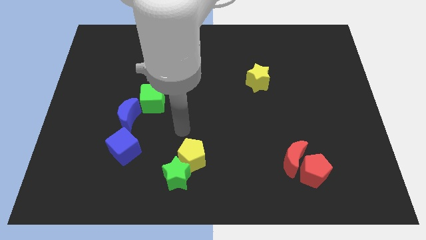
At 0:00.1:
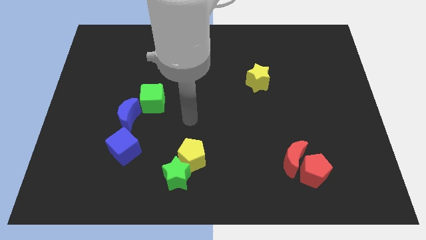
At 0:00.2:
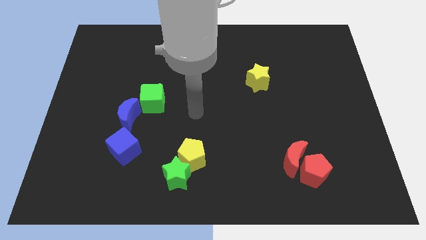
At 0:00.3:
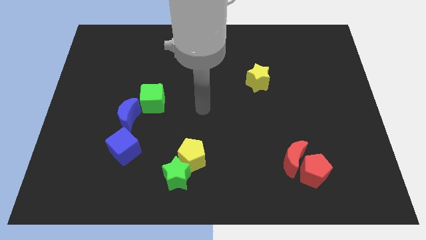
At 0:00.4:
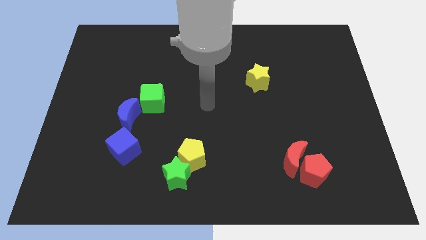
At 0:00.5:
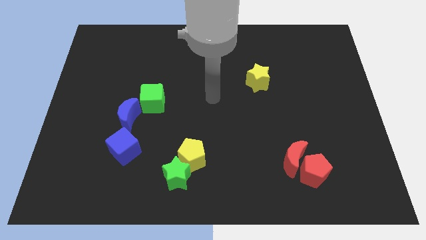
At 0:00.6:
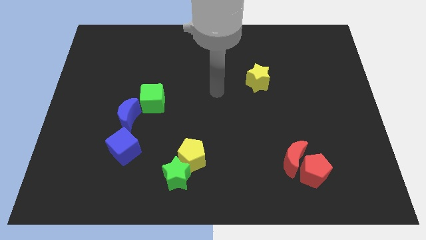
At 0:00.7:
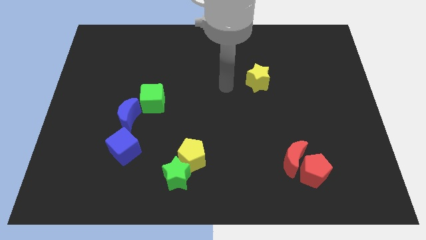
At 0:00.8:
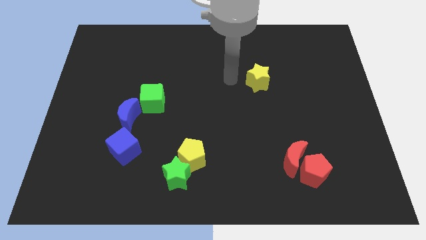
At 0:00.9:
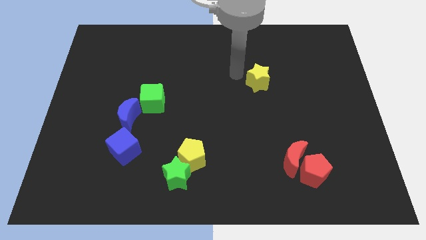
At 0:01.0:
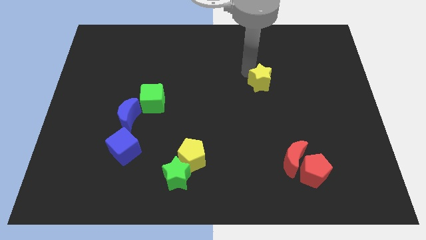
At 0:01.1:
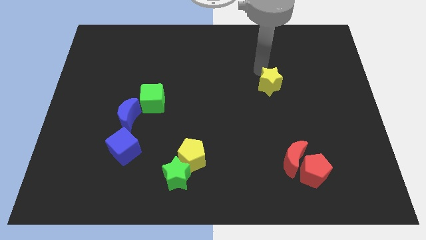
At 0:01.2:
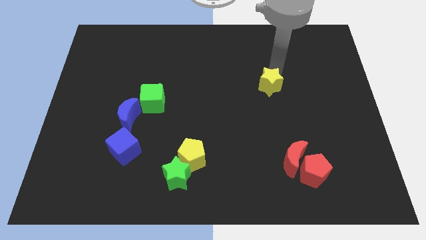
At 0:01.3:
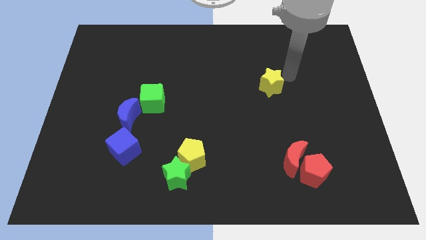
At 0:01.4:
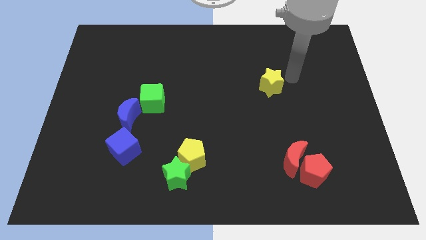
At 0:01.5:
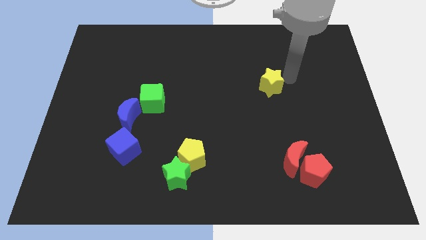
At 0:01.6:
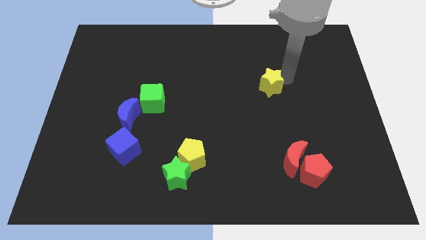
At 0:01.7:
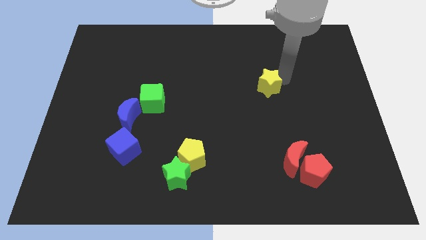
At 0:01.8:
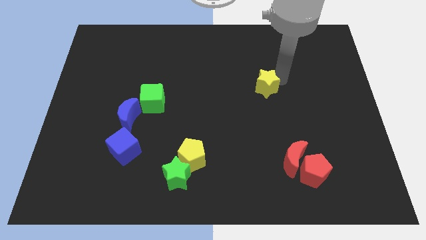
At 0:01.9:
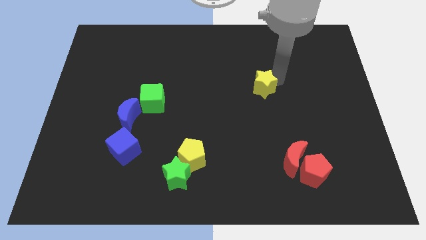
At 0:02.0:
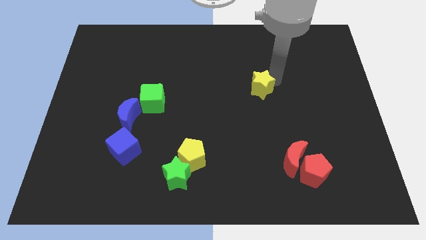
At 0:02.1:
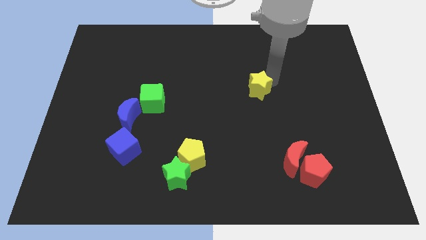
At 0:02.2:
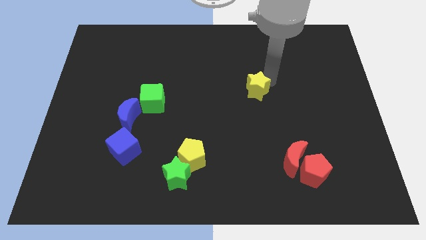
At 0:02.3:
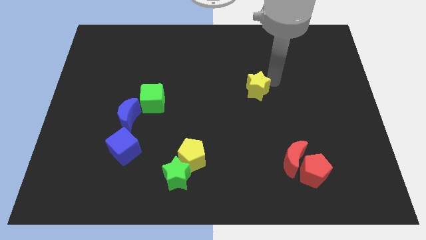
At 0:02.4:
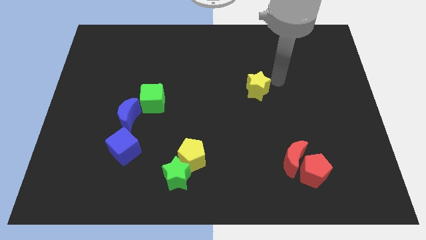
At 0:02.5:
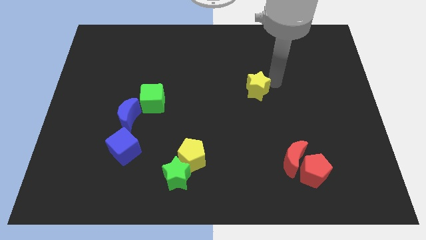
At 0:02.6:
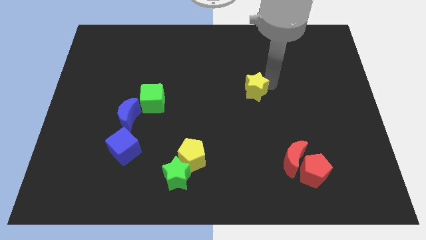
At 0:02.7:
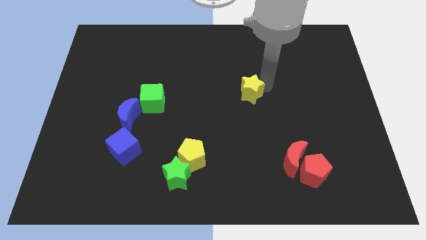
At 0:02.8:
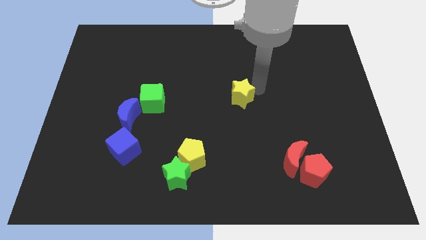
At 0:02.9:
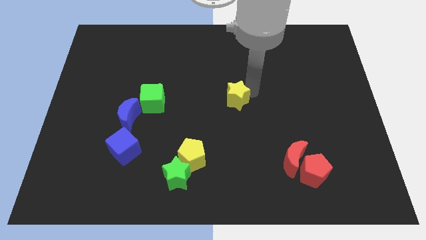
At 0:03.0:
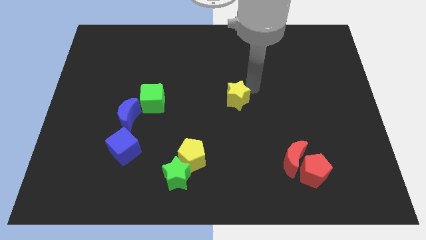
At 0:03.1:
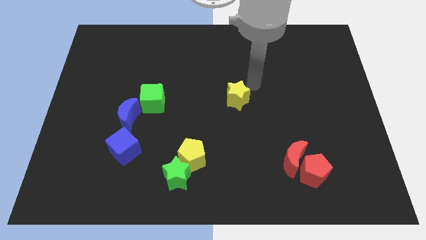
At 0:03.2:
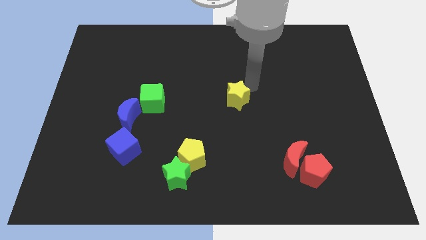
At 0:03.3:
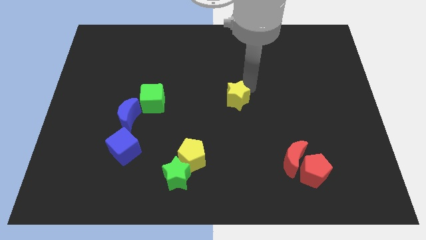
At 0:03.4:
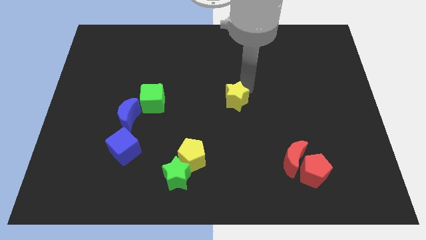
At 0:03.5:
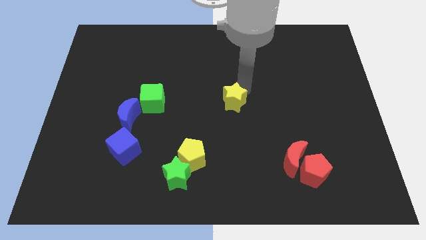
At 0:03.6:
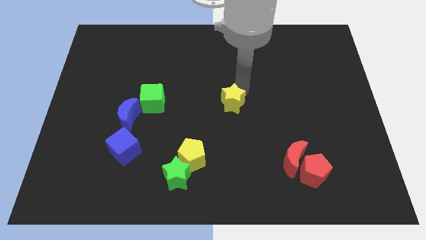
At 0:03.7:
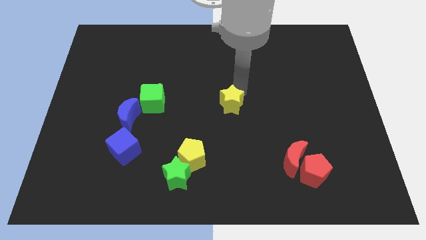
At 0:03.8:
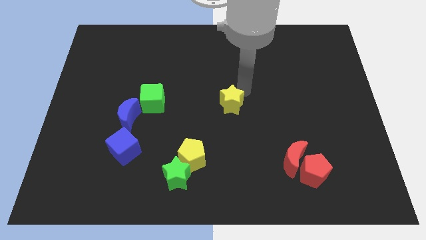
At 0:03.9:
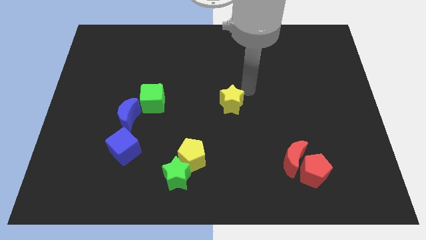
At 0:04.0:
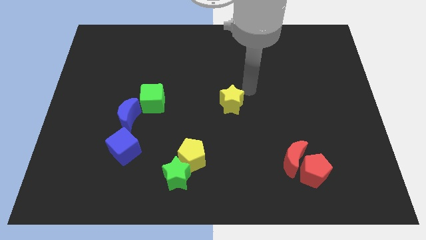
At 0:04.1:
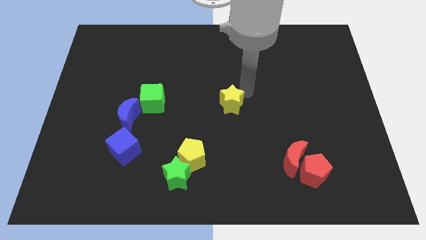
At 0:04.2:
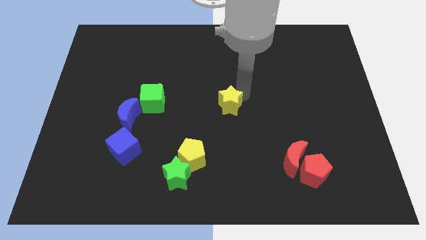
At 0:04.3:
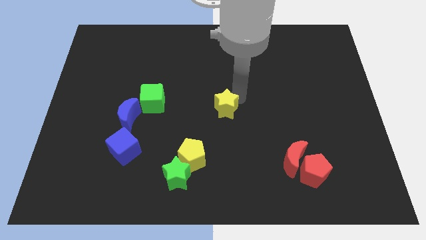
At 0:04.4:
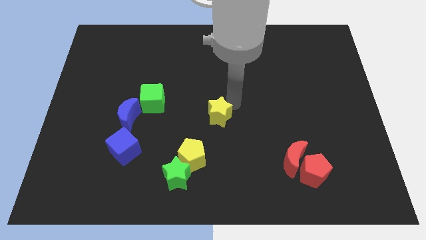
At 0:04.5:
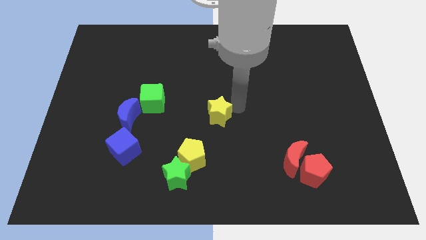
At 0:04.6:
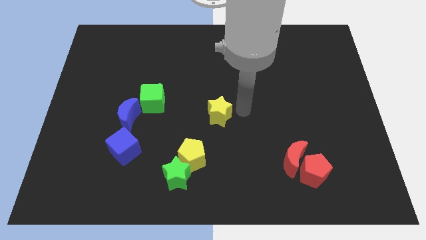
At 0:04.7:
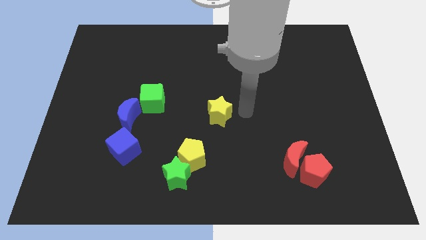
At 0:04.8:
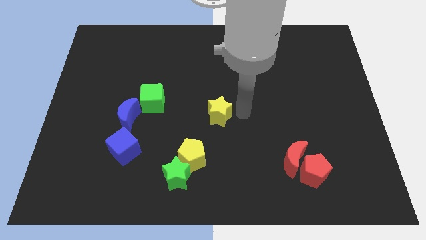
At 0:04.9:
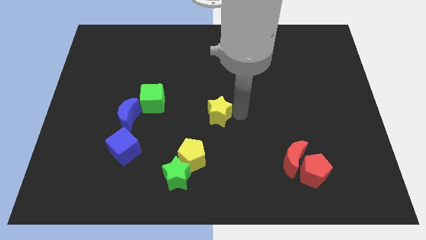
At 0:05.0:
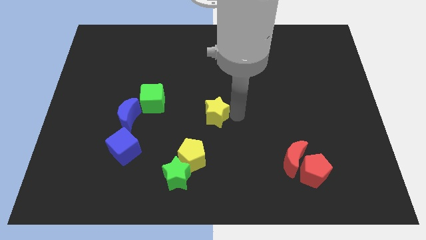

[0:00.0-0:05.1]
put the yellow star to the top of the yellow pentagon

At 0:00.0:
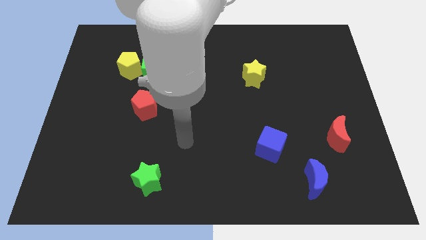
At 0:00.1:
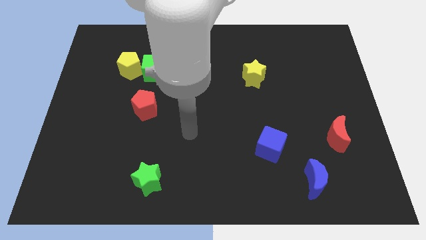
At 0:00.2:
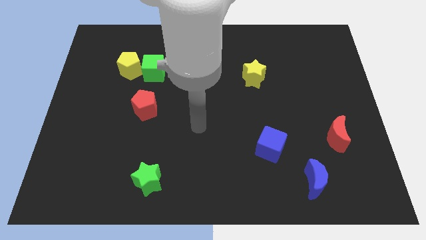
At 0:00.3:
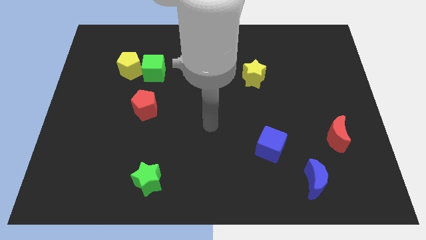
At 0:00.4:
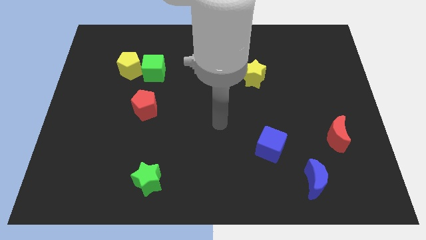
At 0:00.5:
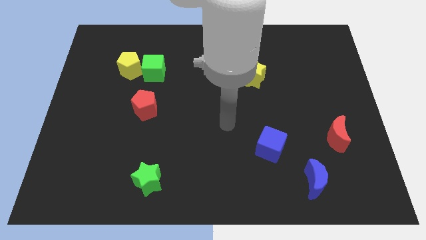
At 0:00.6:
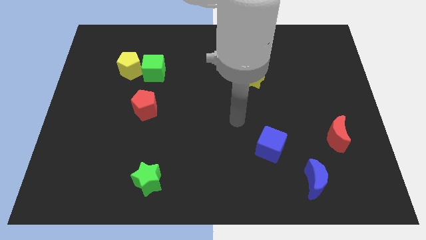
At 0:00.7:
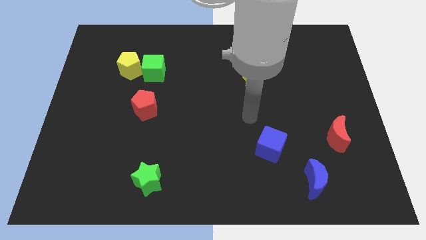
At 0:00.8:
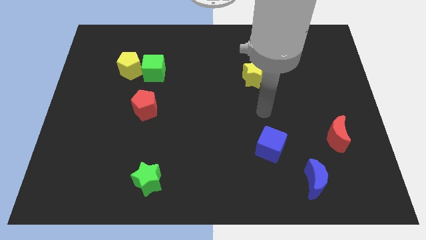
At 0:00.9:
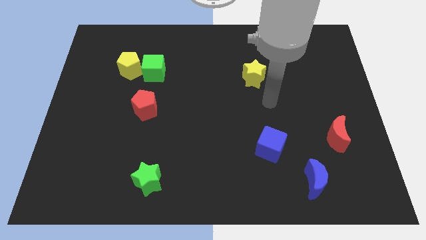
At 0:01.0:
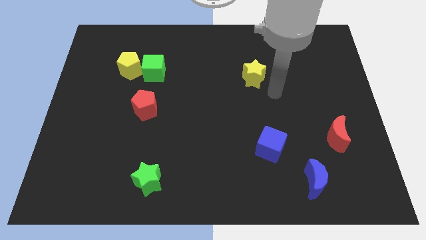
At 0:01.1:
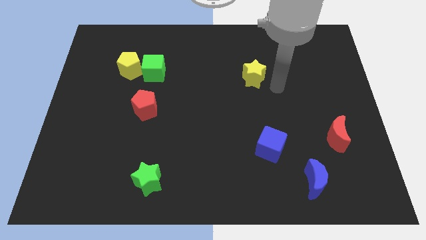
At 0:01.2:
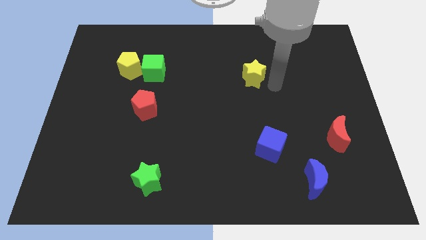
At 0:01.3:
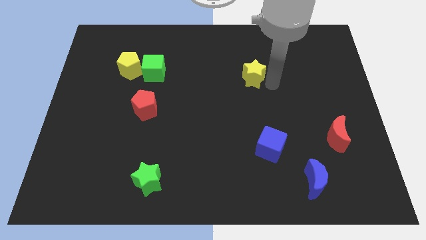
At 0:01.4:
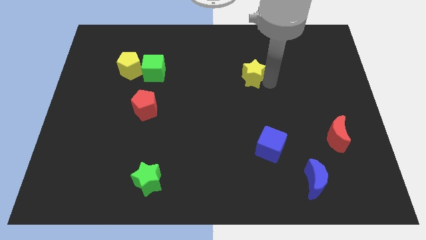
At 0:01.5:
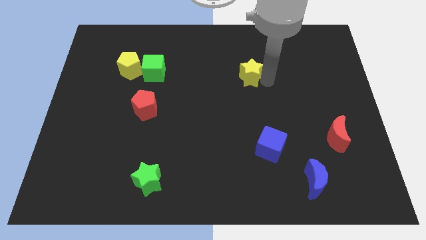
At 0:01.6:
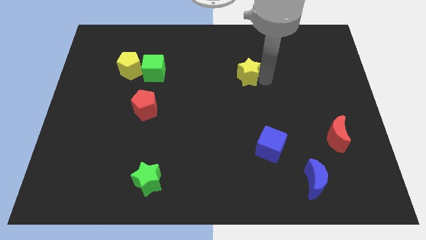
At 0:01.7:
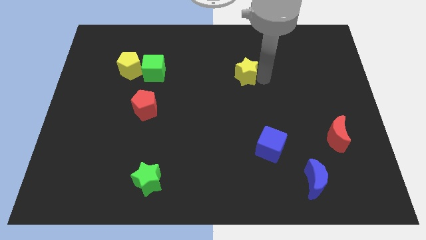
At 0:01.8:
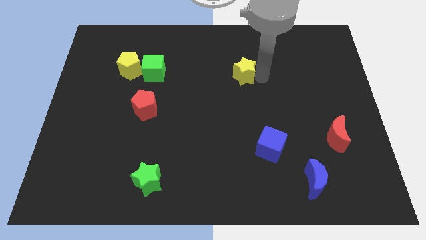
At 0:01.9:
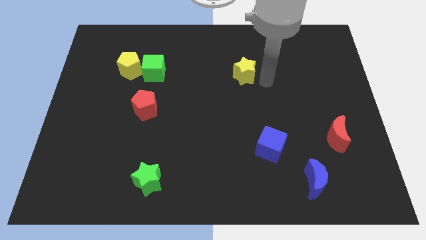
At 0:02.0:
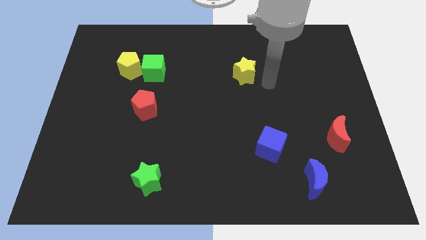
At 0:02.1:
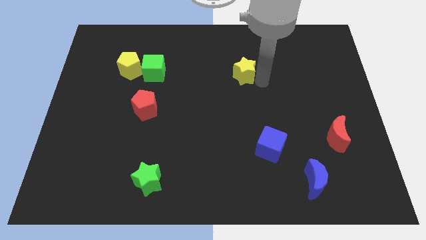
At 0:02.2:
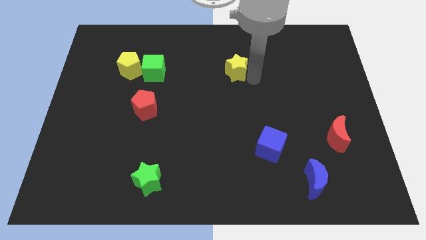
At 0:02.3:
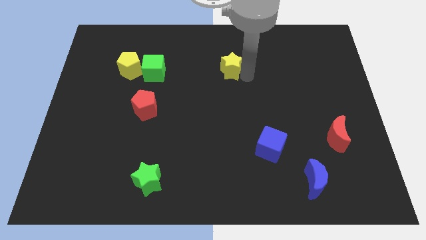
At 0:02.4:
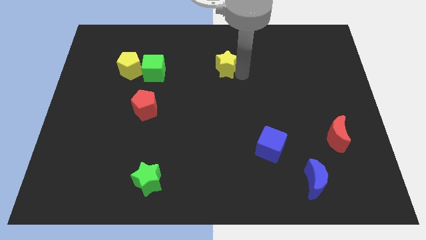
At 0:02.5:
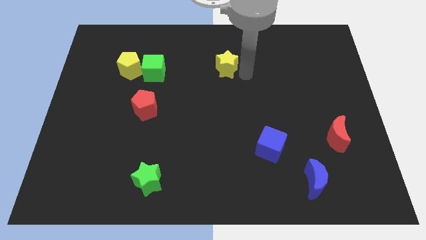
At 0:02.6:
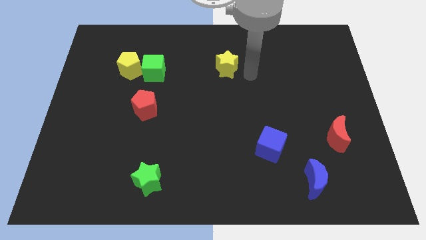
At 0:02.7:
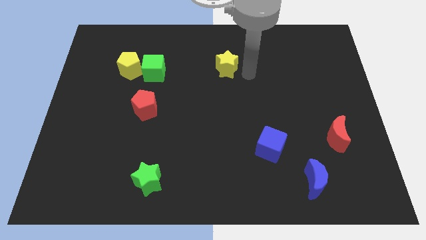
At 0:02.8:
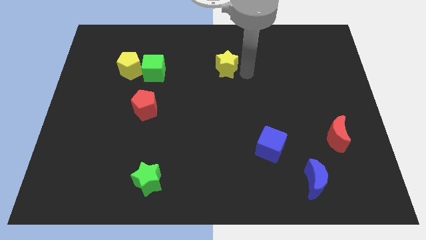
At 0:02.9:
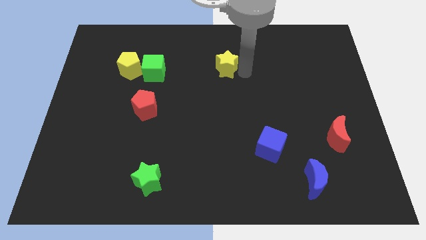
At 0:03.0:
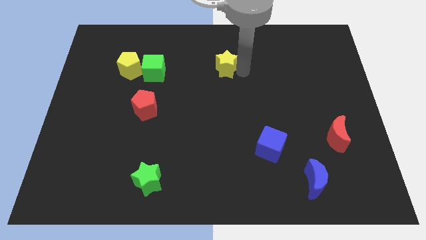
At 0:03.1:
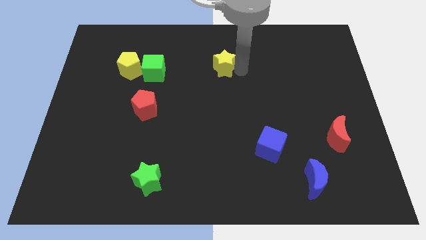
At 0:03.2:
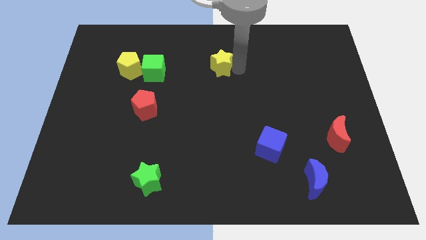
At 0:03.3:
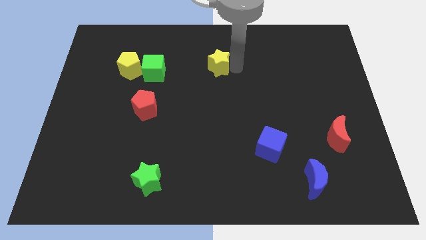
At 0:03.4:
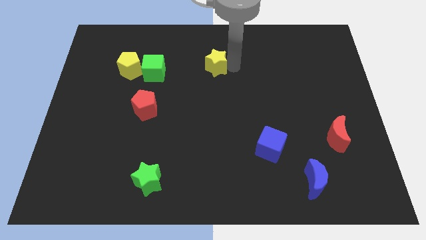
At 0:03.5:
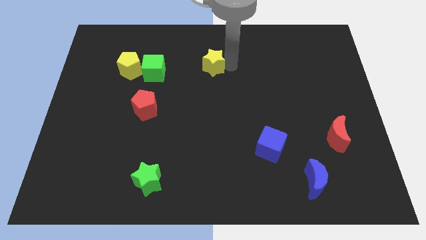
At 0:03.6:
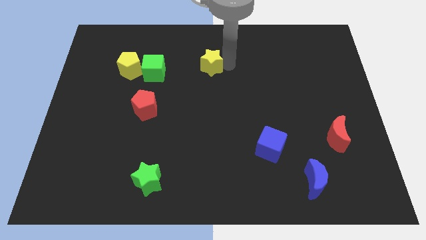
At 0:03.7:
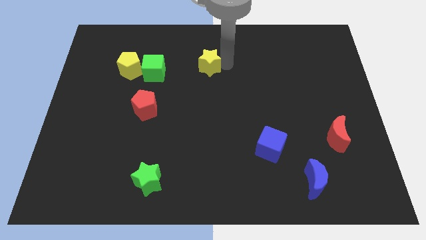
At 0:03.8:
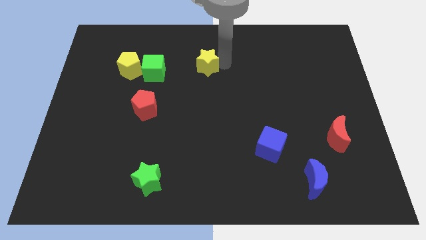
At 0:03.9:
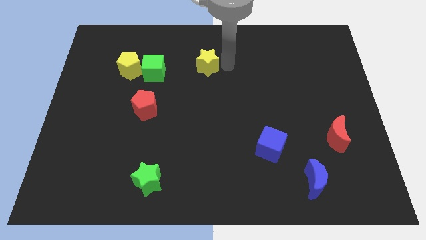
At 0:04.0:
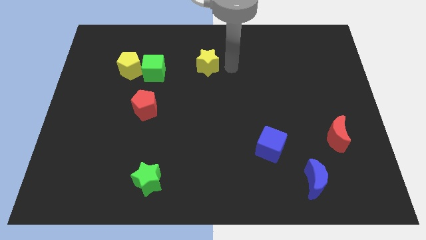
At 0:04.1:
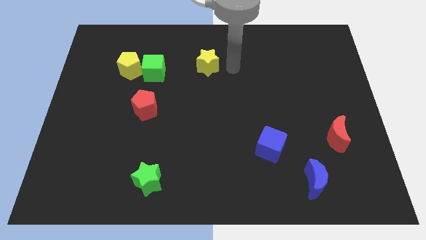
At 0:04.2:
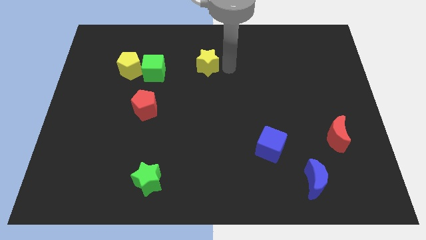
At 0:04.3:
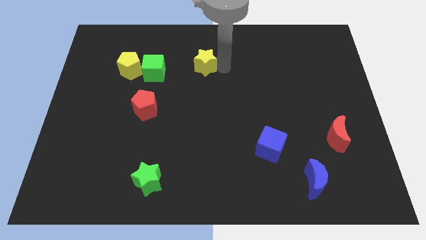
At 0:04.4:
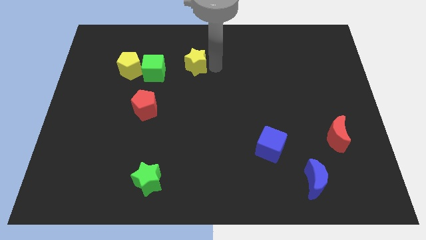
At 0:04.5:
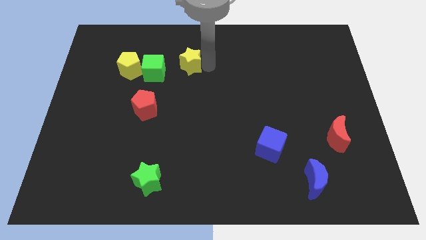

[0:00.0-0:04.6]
push the yellow star just right of the yellow pentagon
